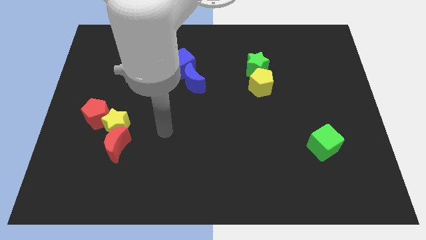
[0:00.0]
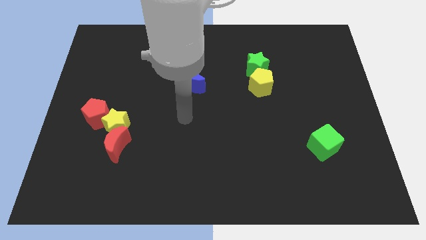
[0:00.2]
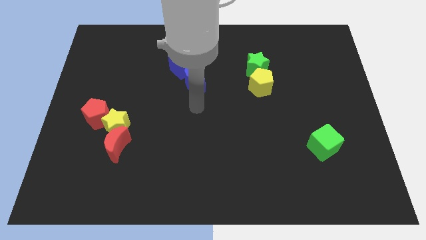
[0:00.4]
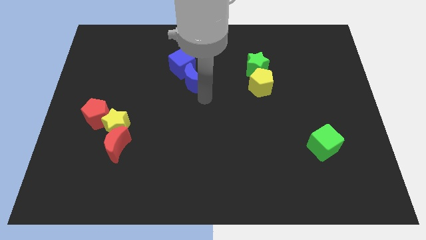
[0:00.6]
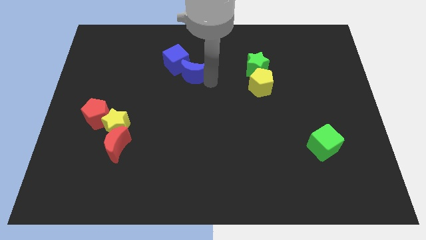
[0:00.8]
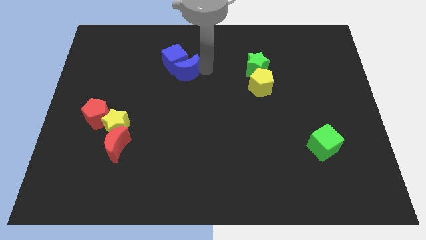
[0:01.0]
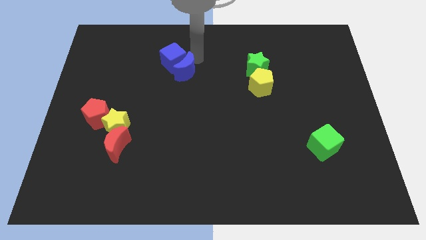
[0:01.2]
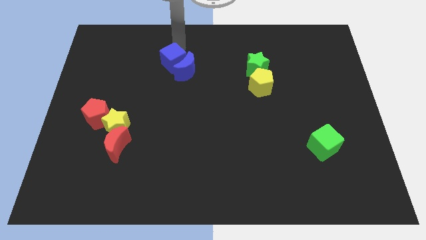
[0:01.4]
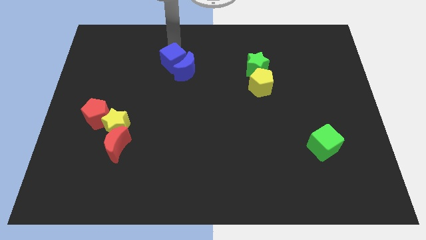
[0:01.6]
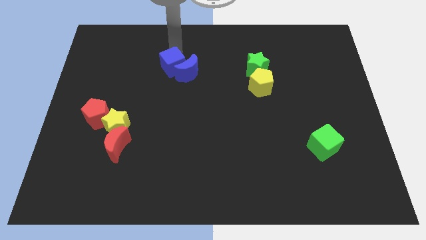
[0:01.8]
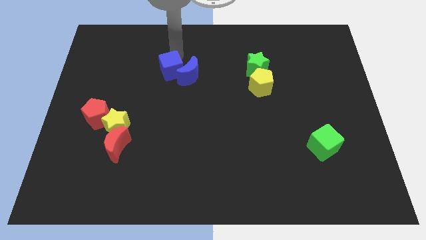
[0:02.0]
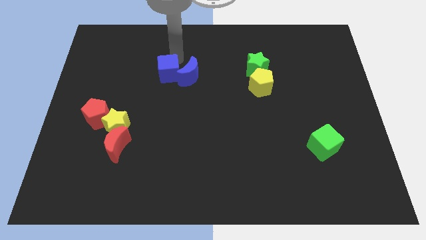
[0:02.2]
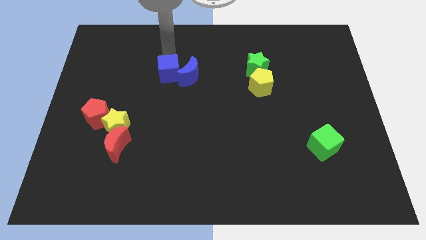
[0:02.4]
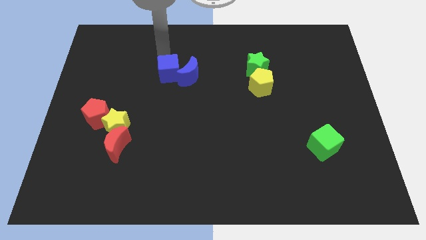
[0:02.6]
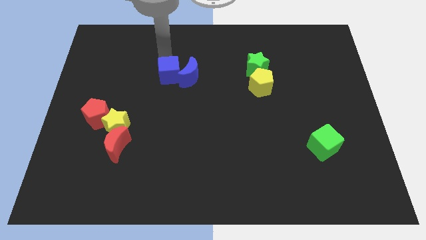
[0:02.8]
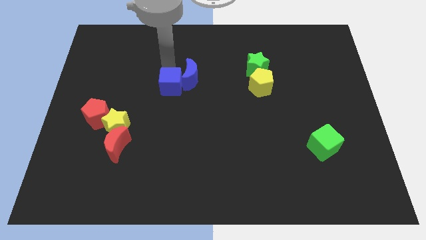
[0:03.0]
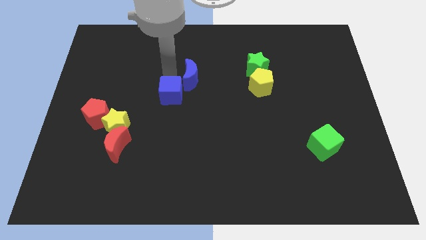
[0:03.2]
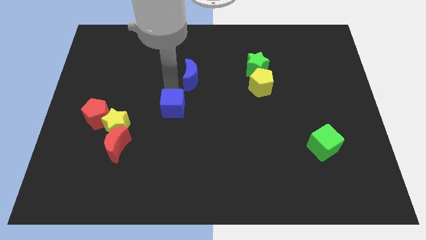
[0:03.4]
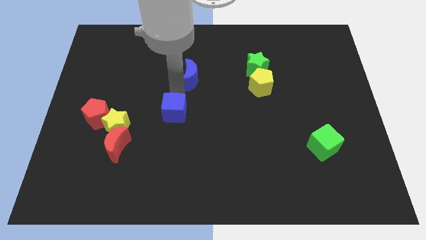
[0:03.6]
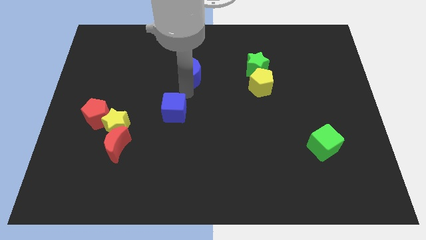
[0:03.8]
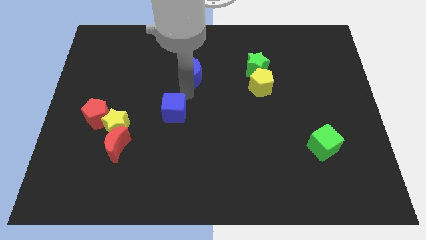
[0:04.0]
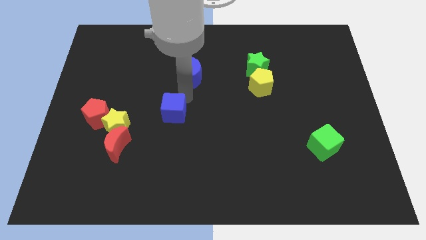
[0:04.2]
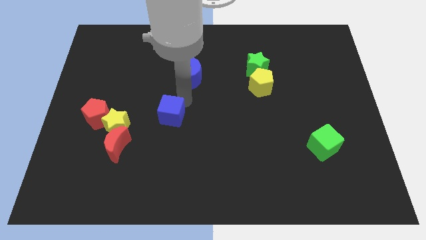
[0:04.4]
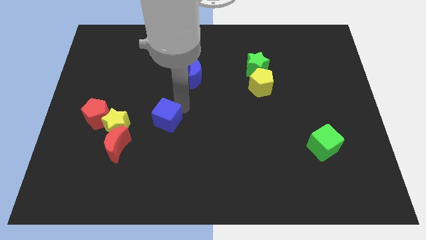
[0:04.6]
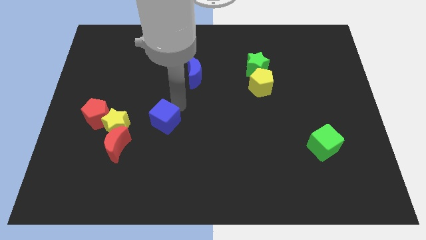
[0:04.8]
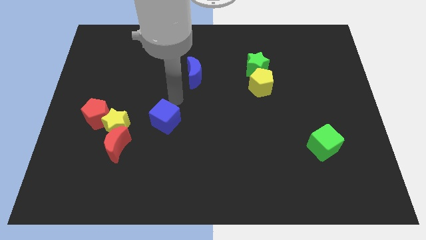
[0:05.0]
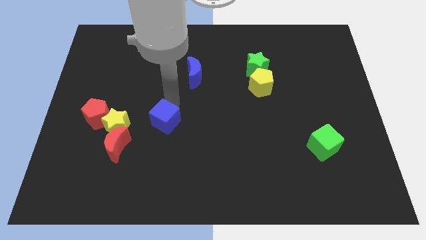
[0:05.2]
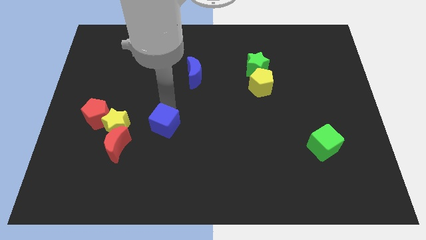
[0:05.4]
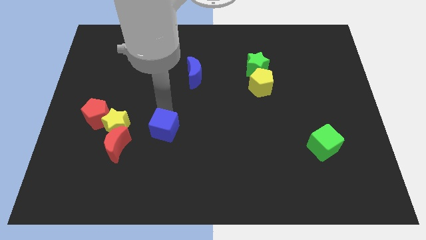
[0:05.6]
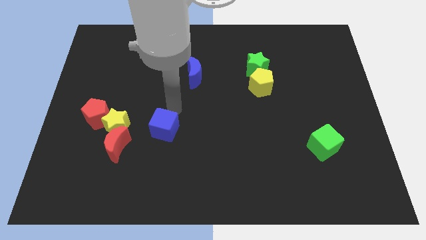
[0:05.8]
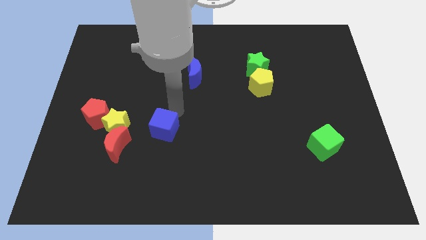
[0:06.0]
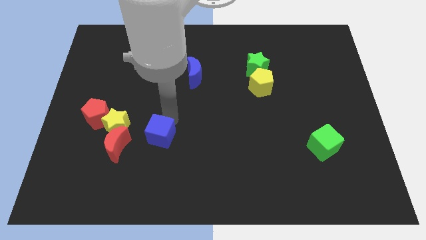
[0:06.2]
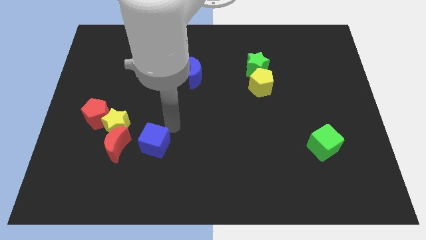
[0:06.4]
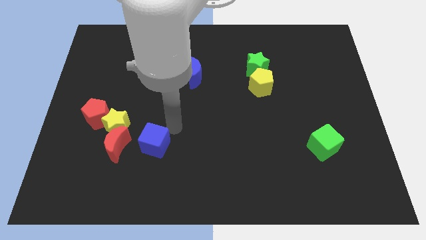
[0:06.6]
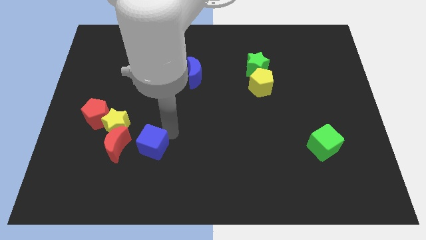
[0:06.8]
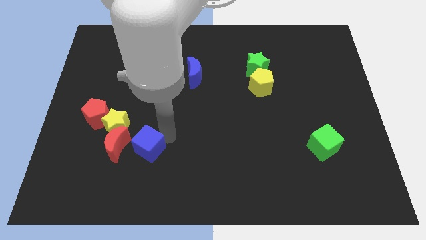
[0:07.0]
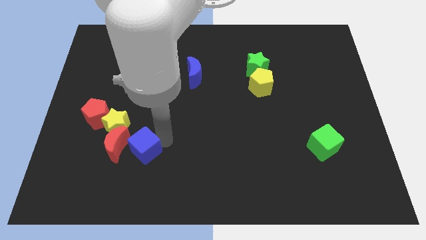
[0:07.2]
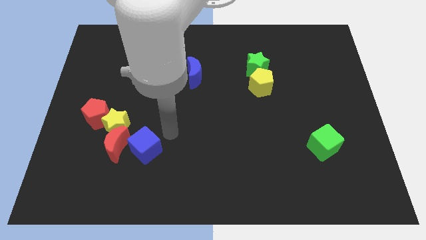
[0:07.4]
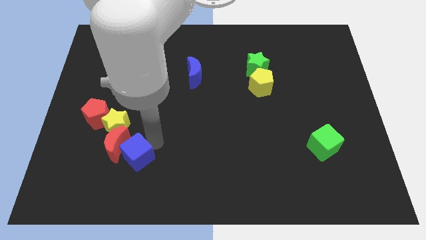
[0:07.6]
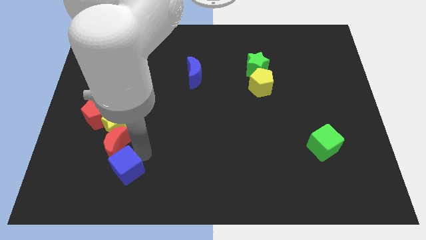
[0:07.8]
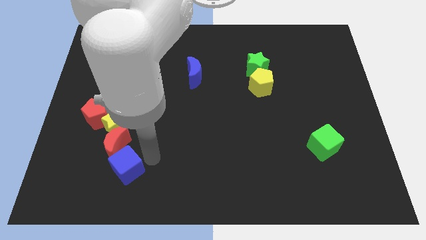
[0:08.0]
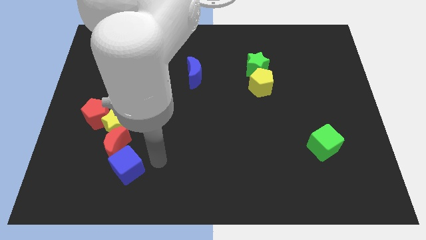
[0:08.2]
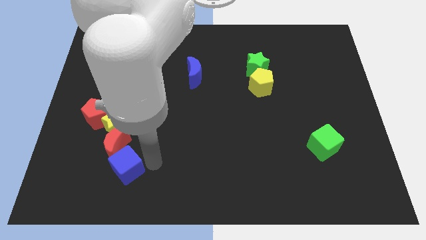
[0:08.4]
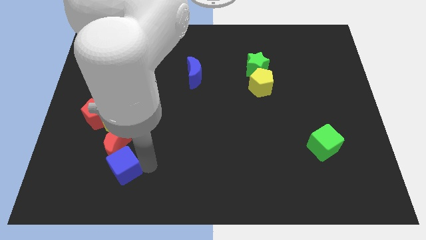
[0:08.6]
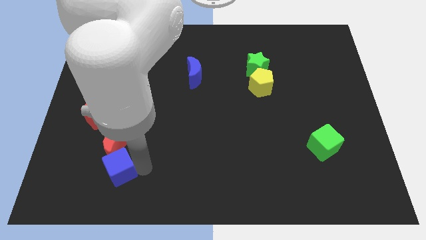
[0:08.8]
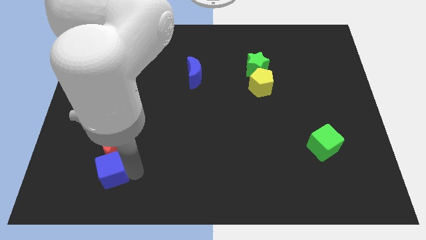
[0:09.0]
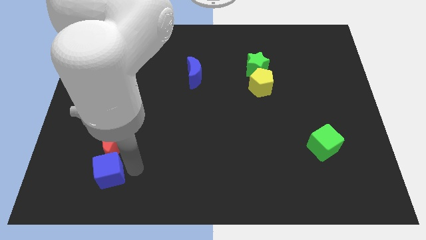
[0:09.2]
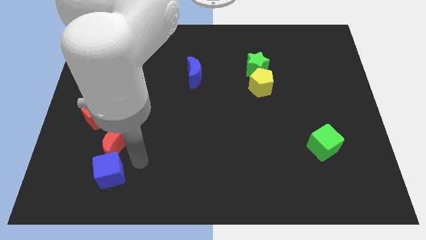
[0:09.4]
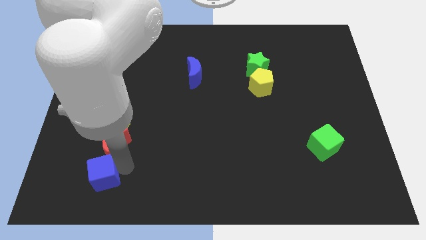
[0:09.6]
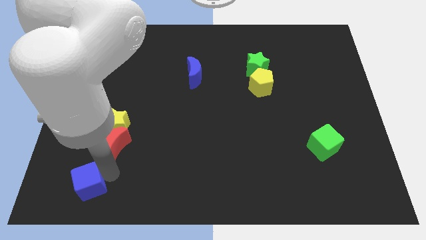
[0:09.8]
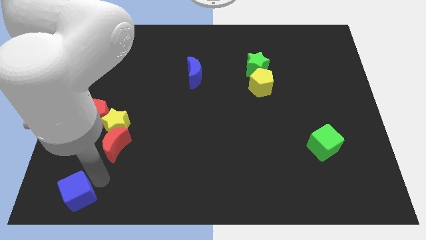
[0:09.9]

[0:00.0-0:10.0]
push the blue cube to the bottom left of the board

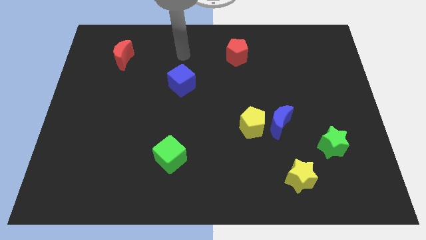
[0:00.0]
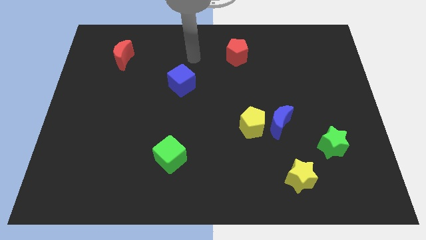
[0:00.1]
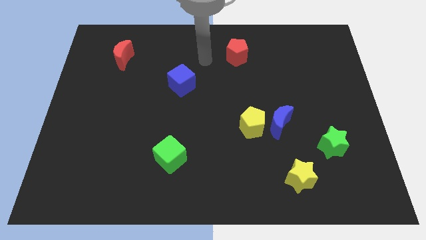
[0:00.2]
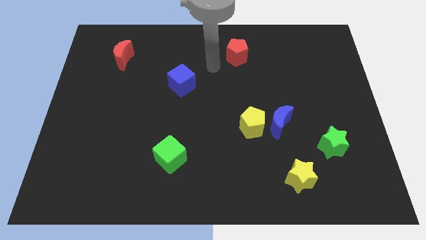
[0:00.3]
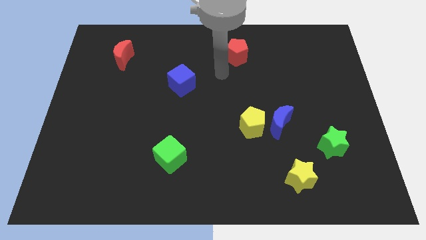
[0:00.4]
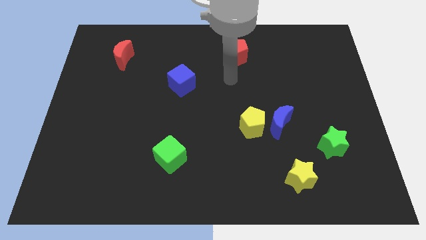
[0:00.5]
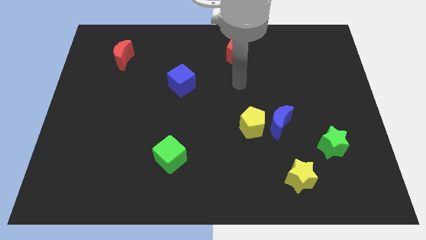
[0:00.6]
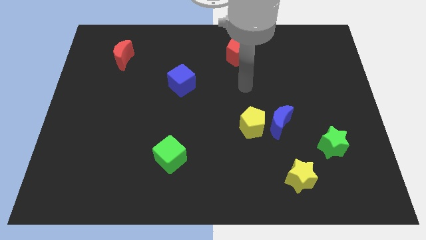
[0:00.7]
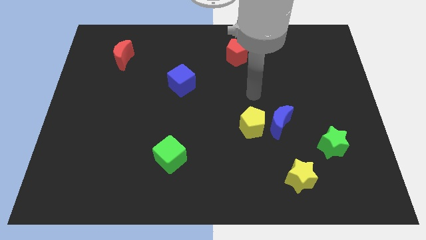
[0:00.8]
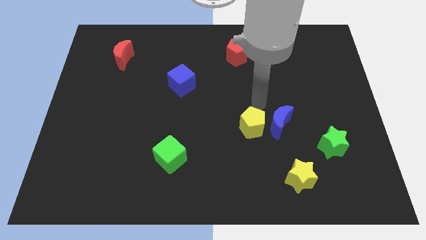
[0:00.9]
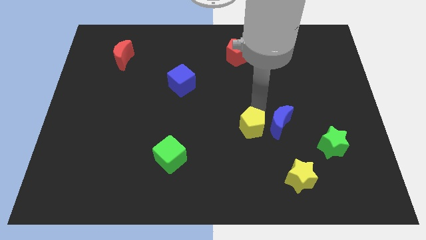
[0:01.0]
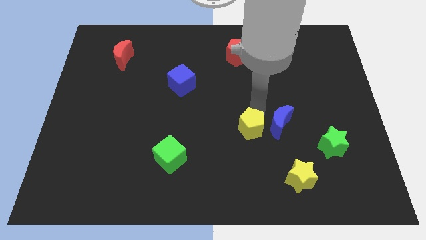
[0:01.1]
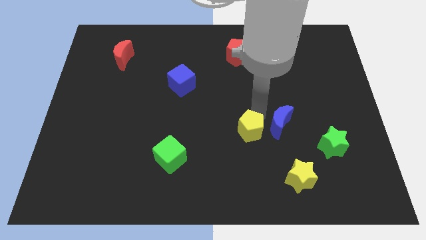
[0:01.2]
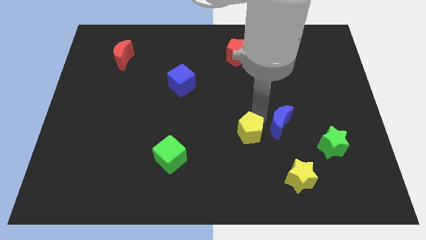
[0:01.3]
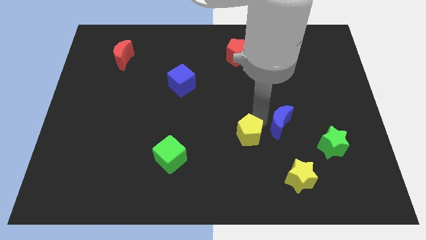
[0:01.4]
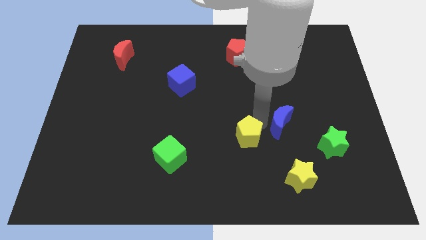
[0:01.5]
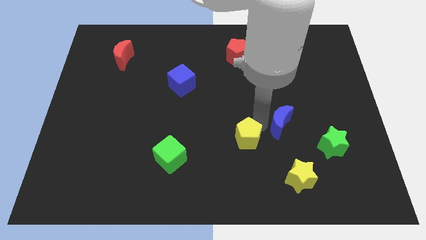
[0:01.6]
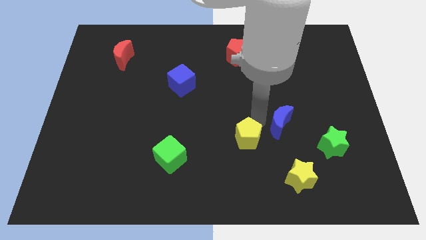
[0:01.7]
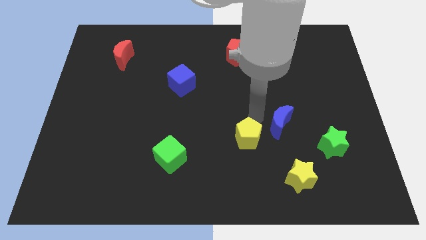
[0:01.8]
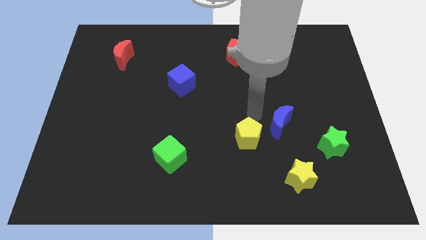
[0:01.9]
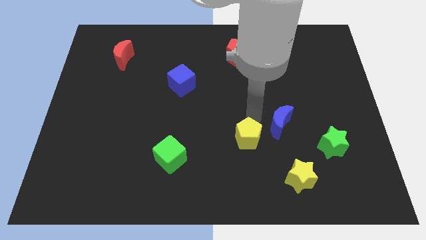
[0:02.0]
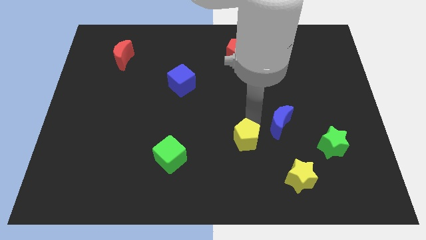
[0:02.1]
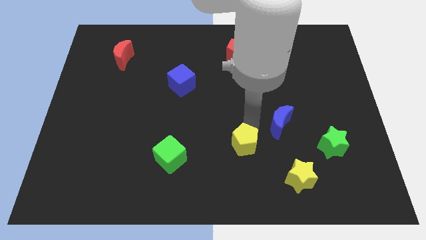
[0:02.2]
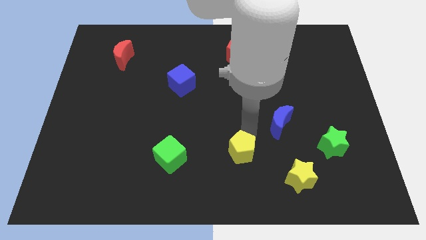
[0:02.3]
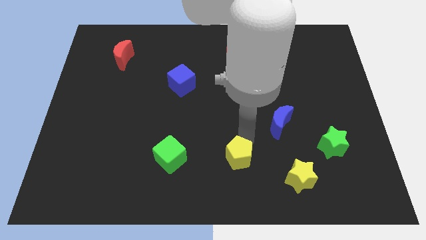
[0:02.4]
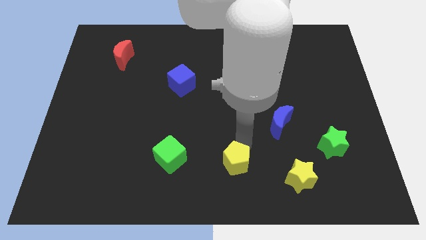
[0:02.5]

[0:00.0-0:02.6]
slide the yellow pentagon to the bottom

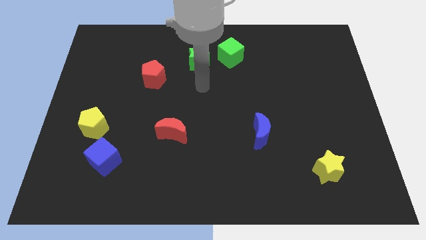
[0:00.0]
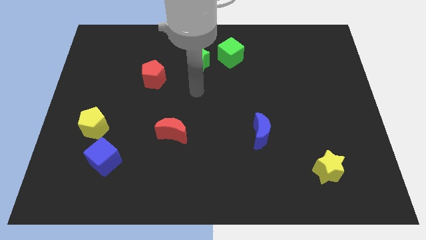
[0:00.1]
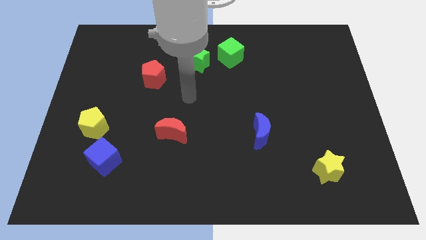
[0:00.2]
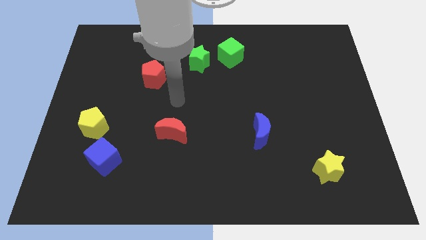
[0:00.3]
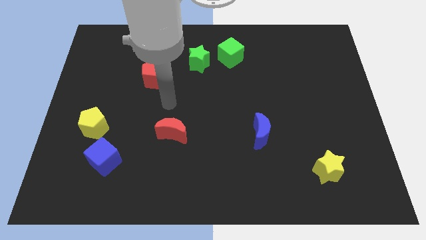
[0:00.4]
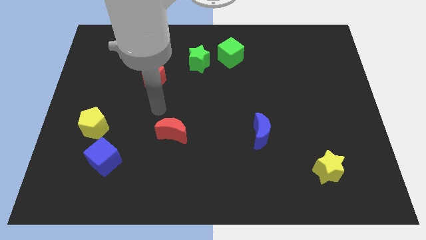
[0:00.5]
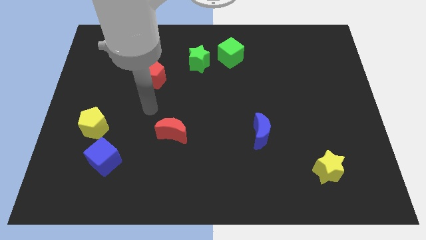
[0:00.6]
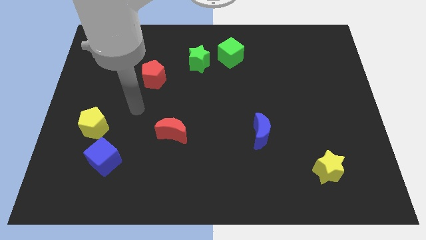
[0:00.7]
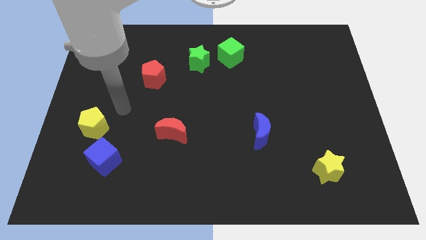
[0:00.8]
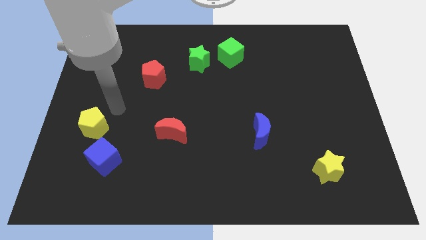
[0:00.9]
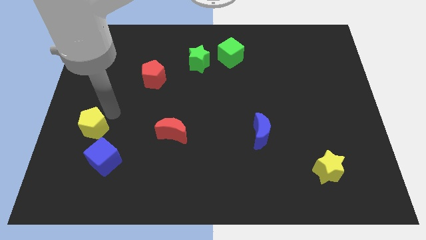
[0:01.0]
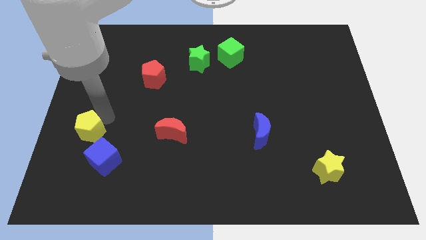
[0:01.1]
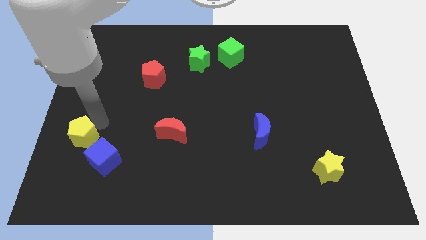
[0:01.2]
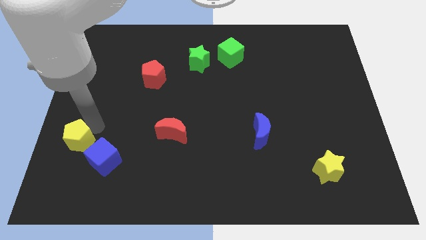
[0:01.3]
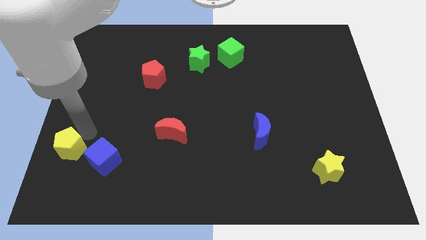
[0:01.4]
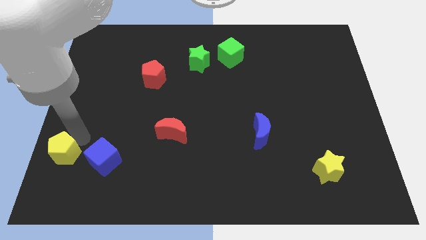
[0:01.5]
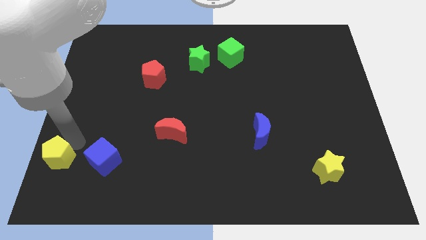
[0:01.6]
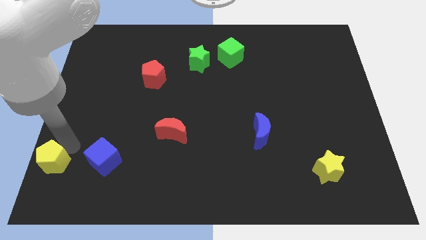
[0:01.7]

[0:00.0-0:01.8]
slide the yellow pentagon to the lower left corner
